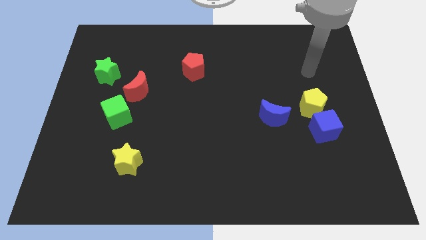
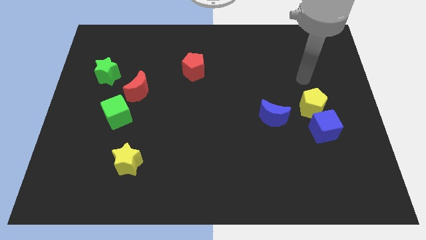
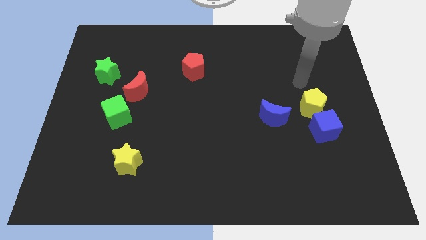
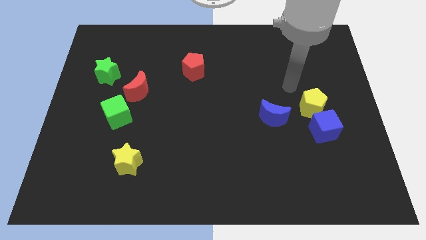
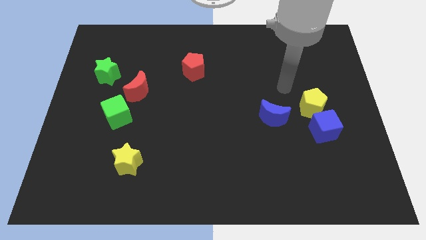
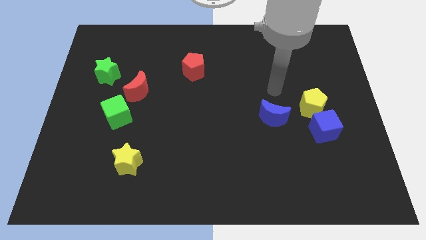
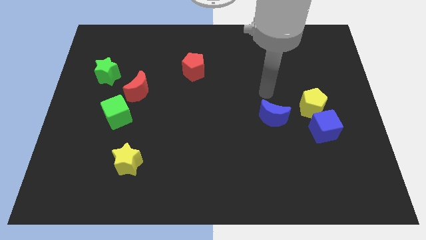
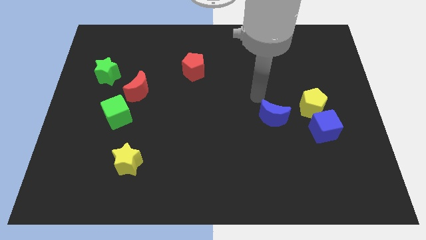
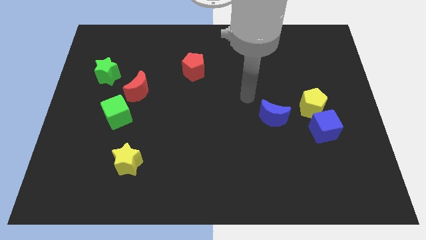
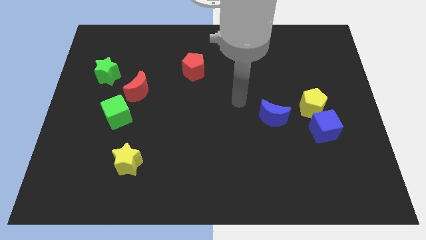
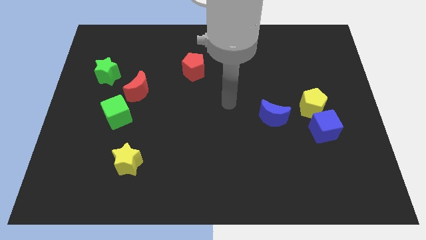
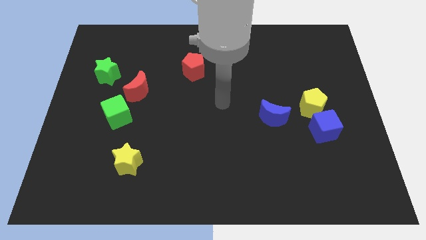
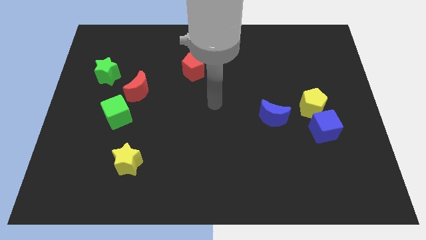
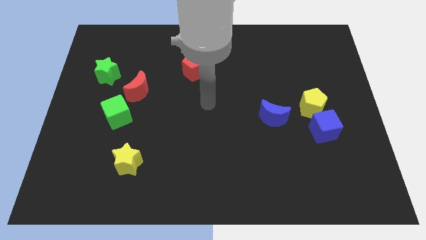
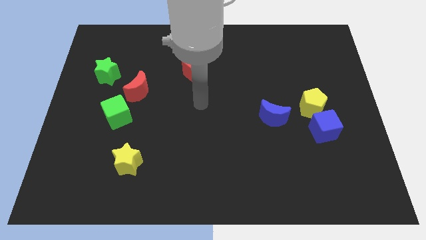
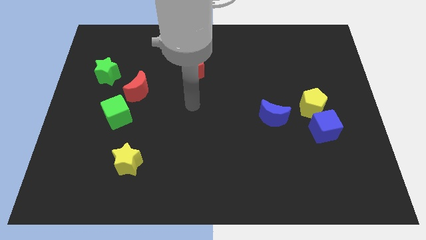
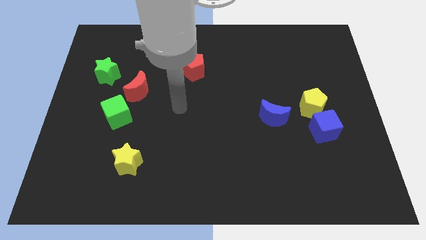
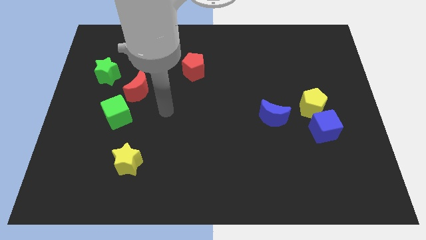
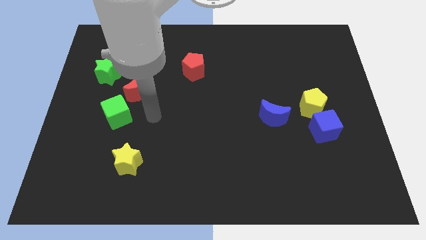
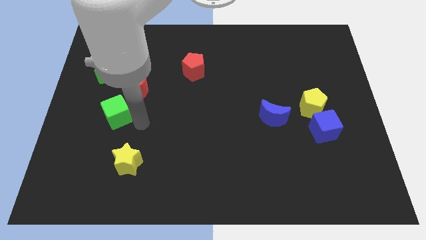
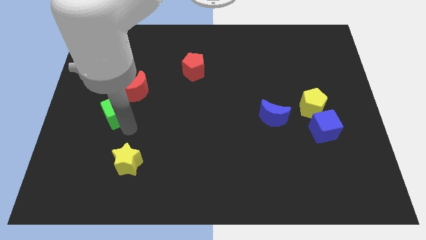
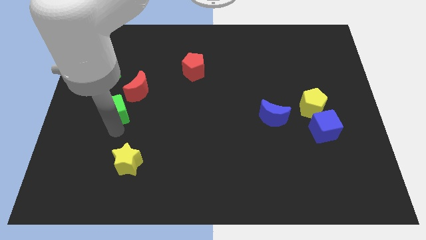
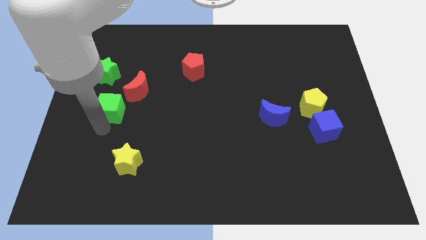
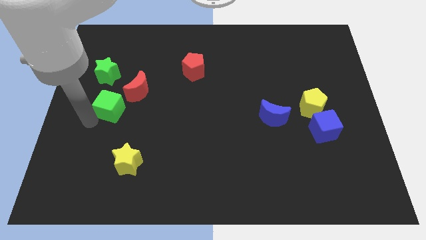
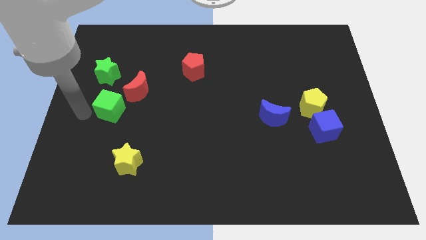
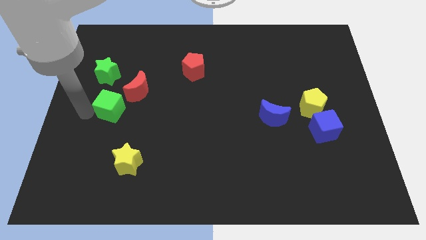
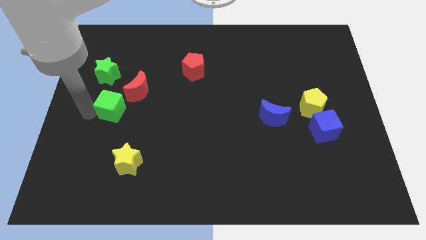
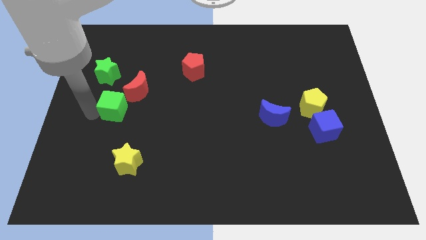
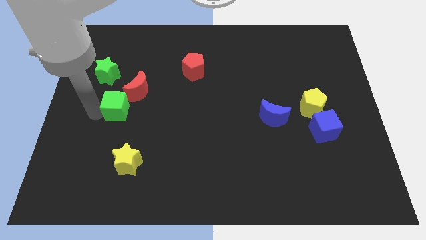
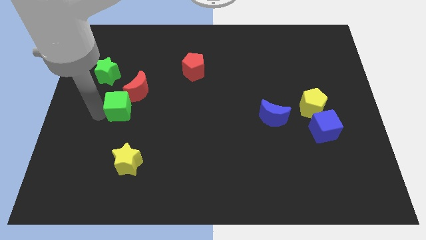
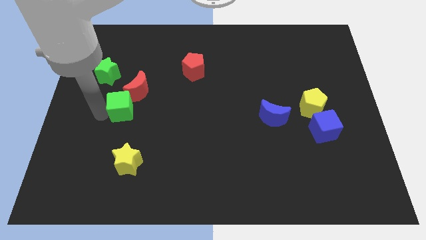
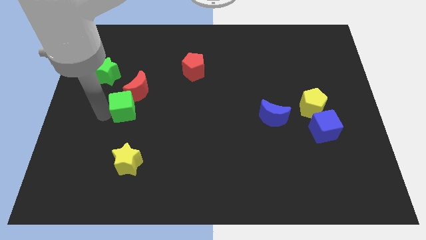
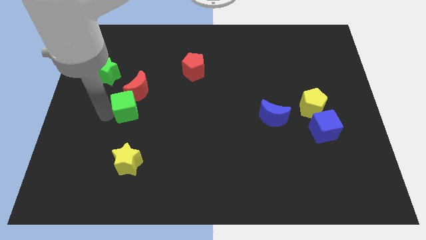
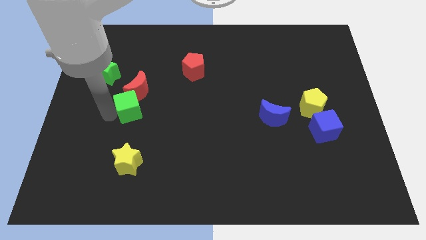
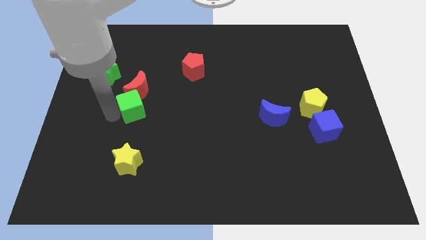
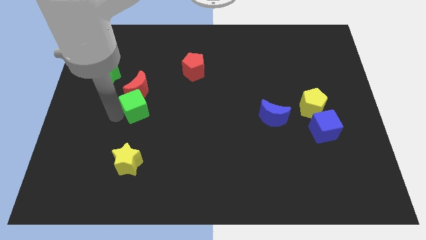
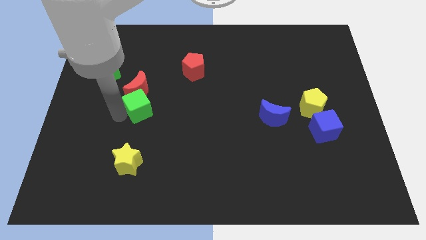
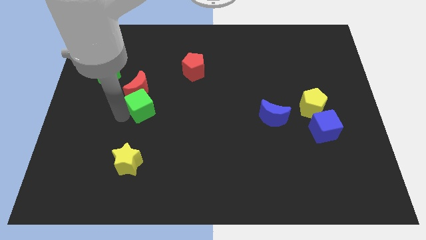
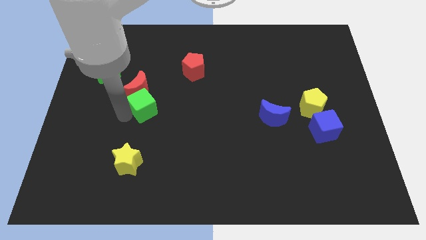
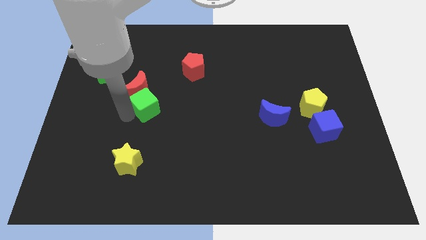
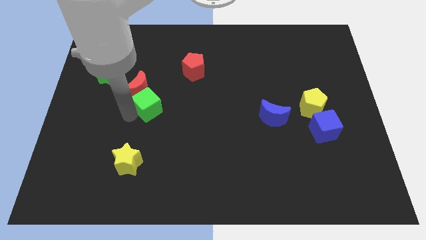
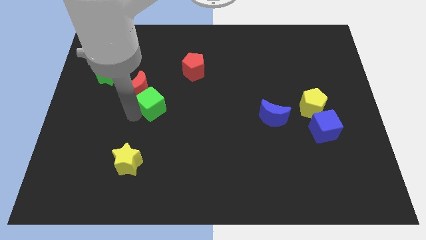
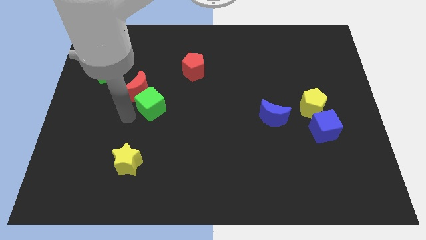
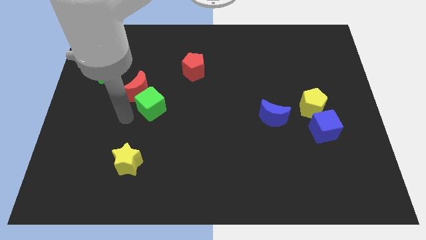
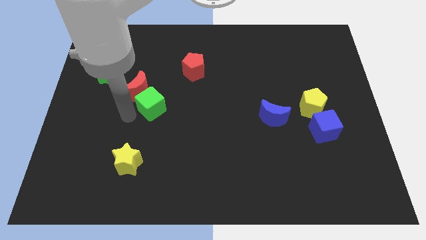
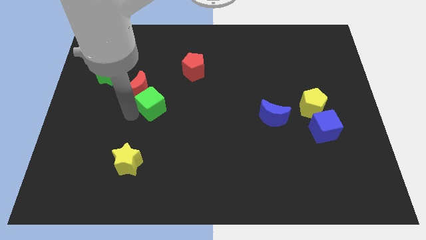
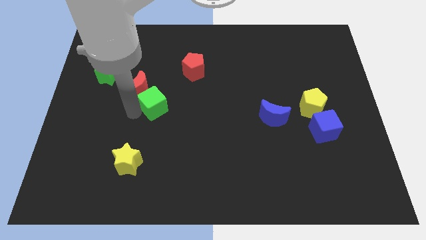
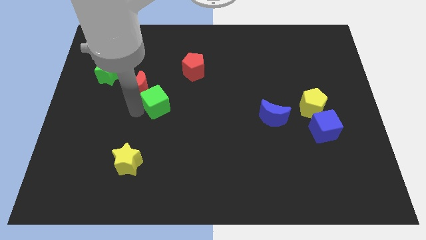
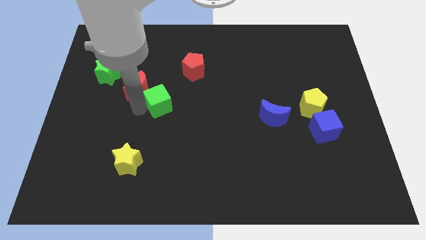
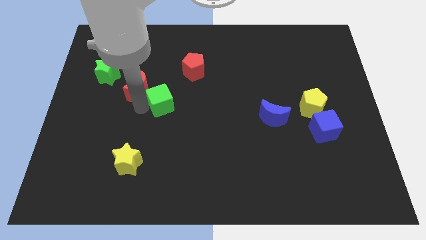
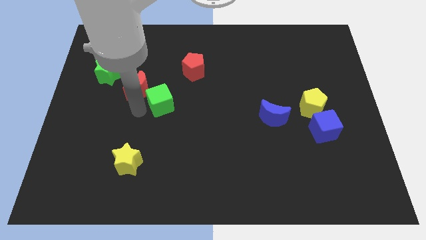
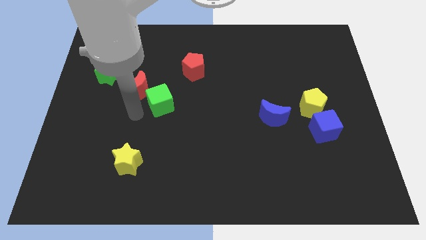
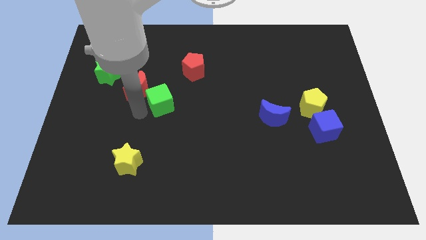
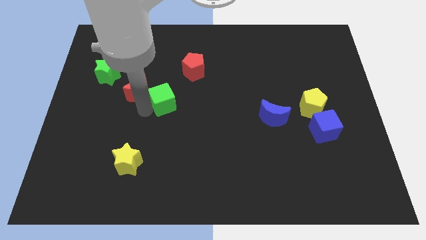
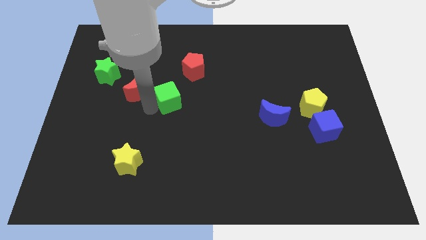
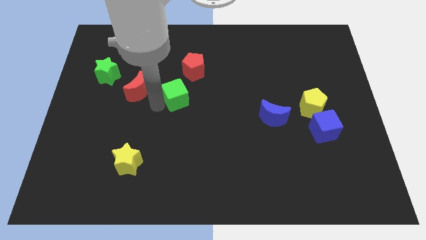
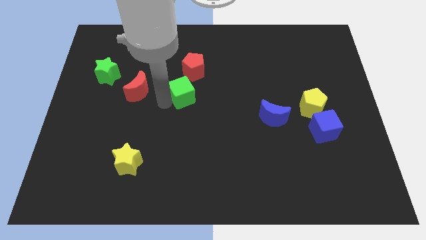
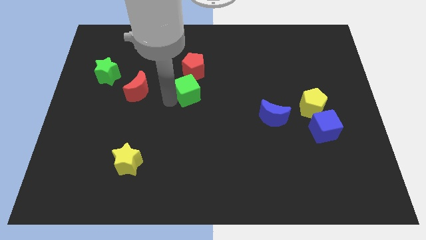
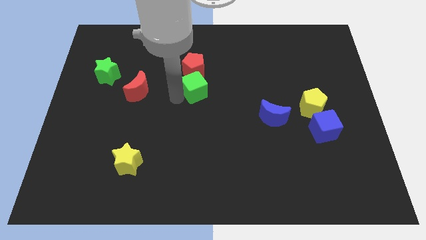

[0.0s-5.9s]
slide the green cube to the bottom right of the red pentagon

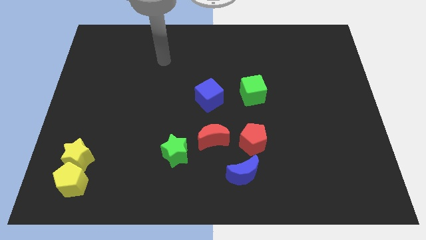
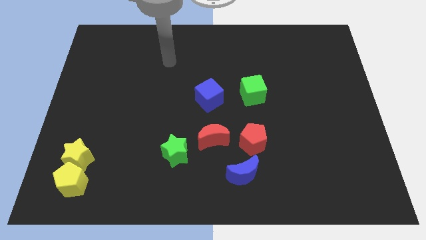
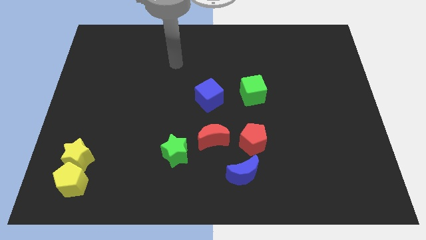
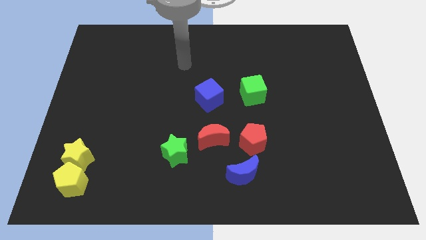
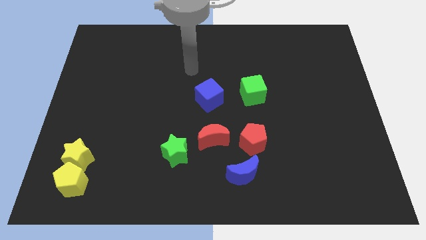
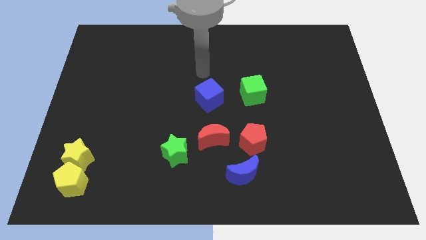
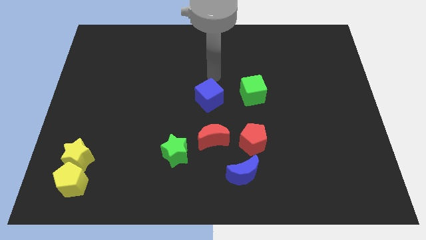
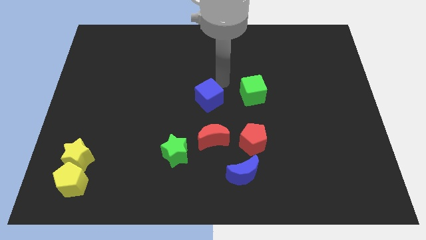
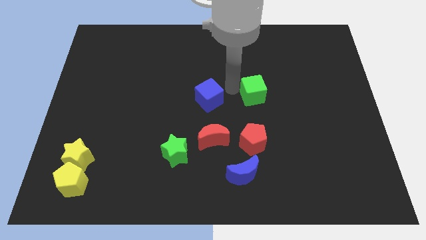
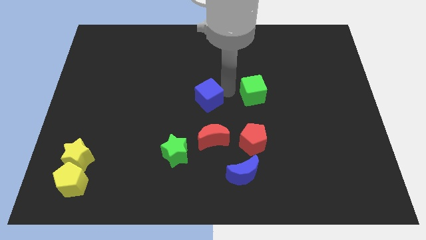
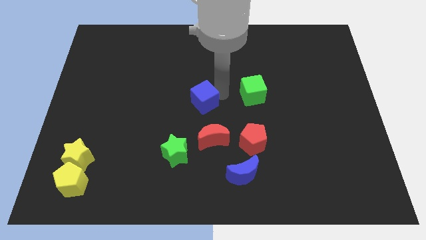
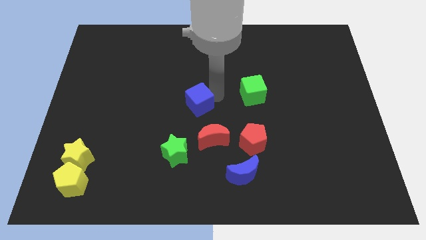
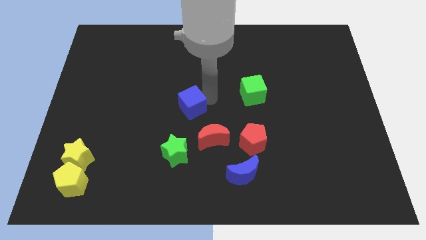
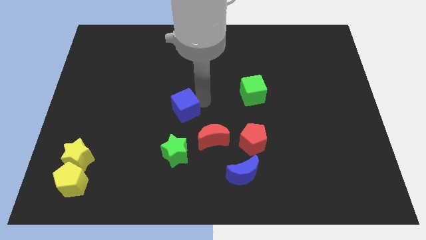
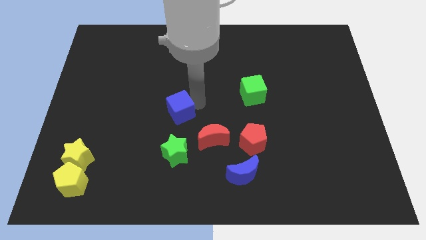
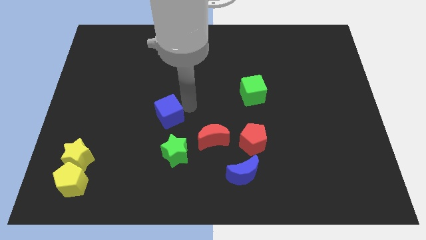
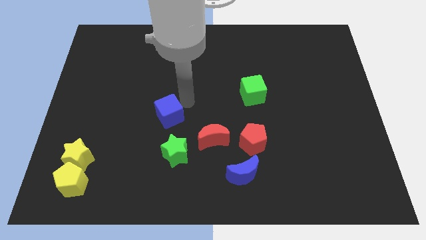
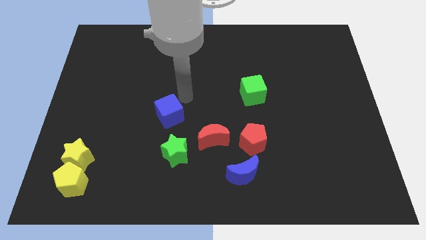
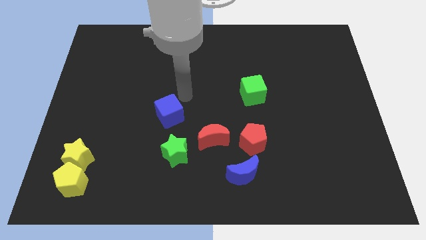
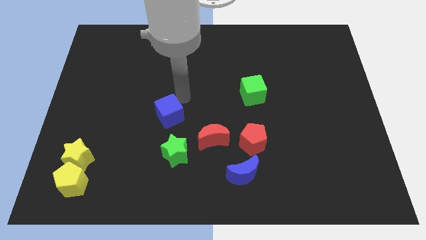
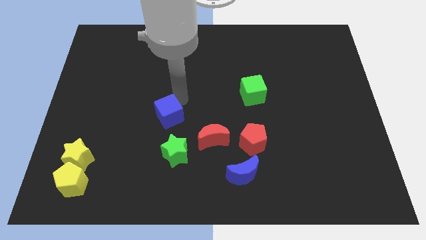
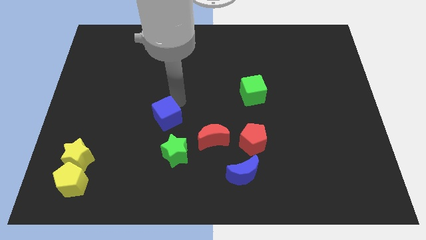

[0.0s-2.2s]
put the blue cube diagonally up and to the left of the green star

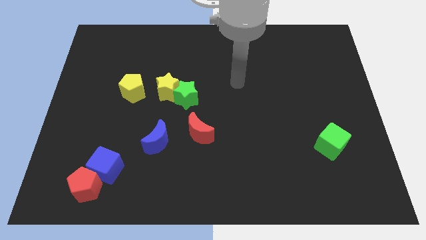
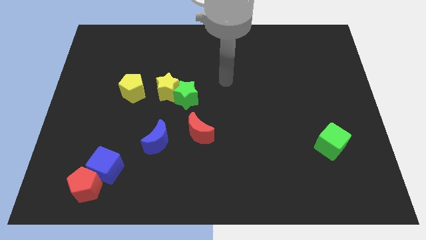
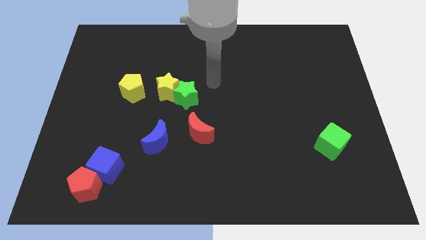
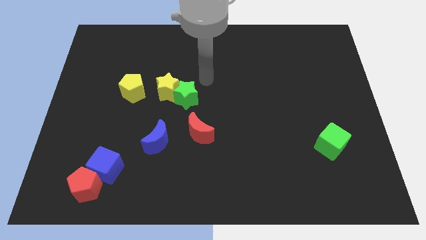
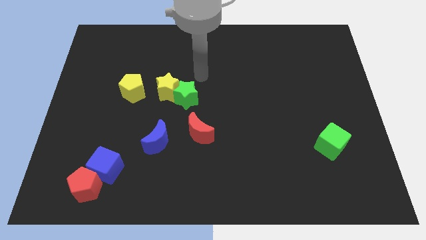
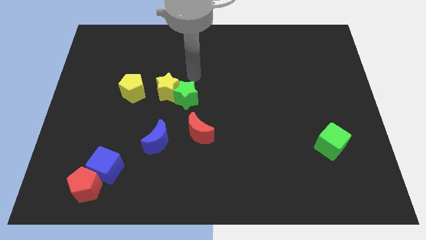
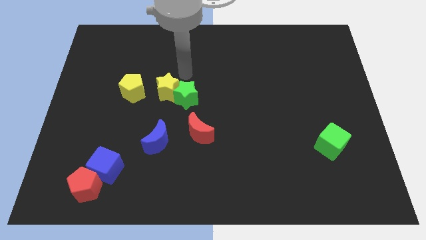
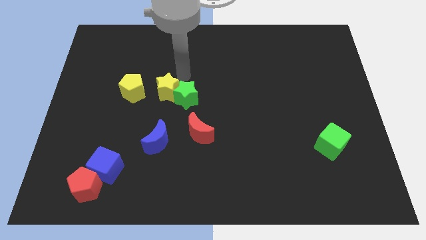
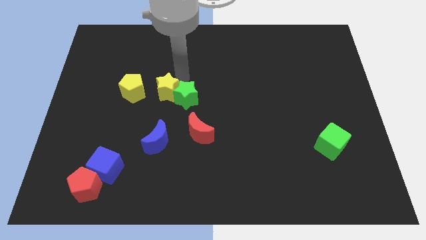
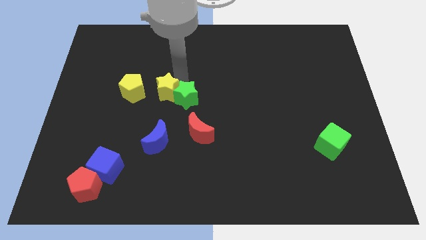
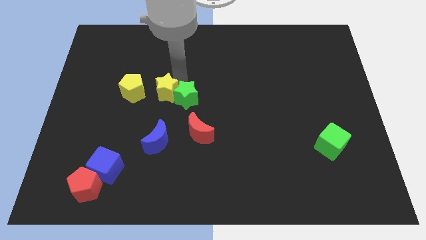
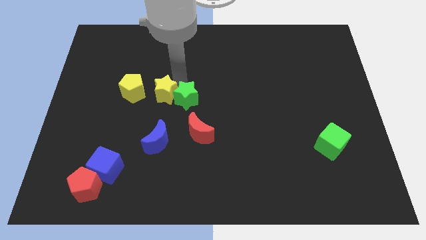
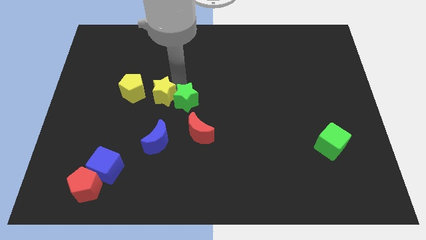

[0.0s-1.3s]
put the yellow star to the bottom right side of the yellow pentagon
